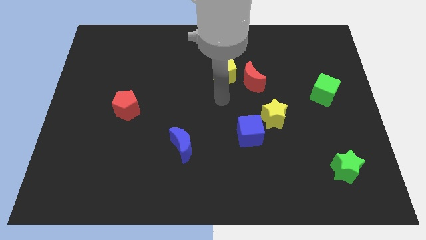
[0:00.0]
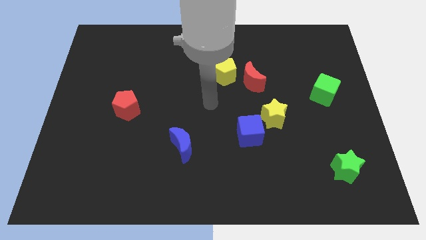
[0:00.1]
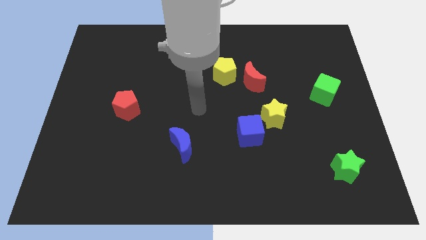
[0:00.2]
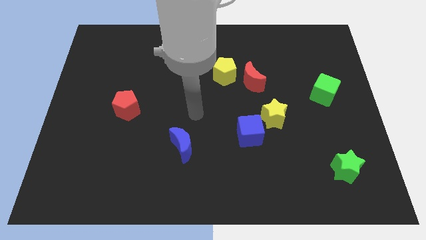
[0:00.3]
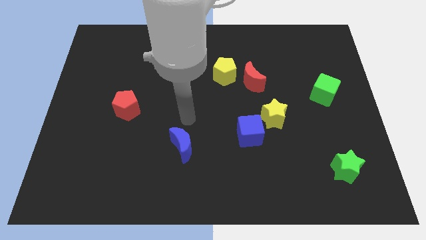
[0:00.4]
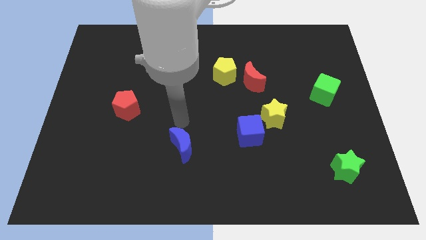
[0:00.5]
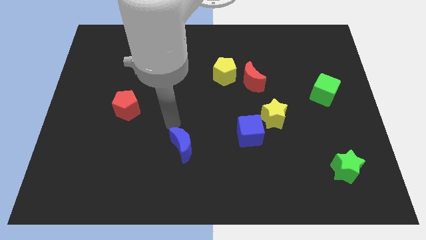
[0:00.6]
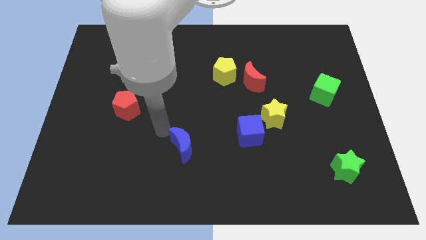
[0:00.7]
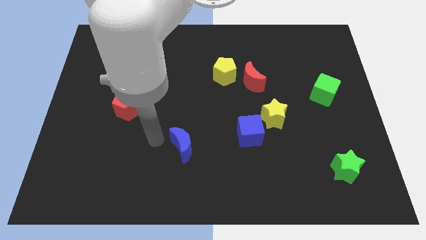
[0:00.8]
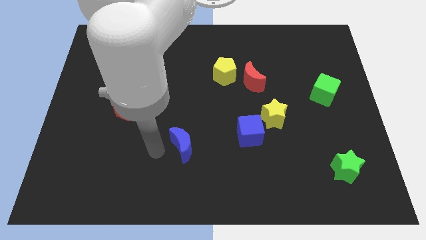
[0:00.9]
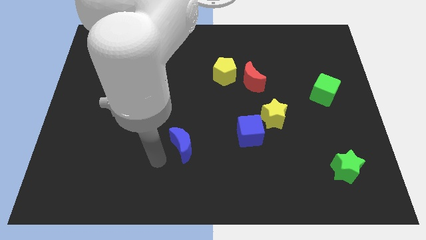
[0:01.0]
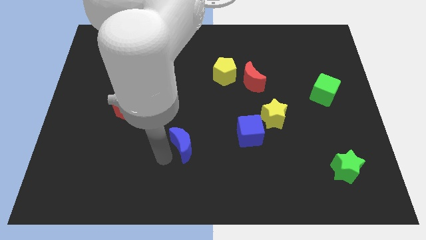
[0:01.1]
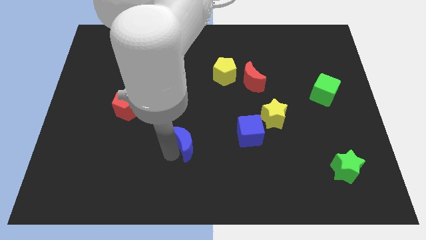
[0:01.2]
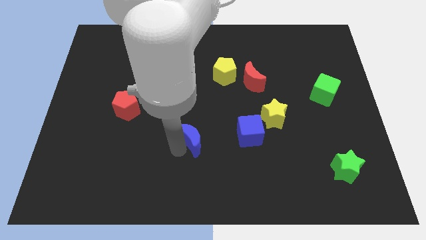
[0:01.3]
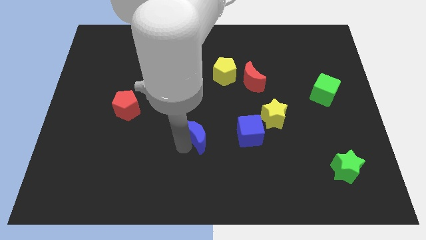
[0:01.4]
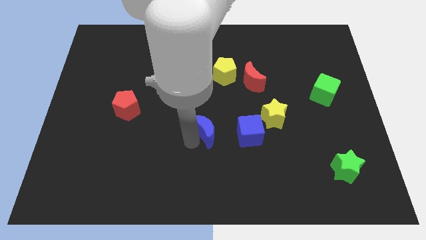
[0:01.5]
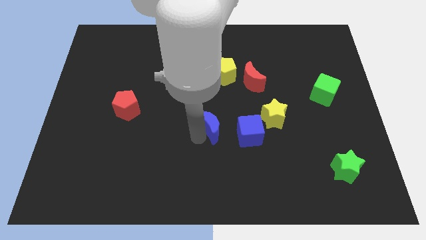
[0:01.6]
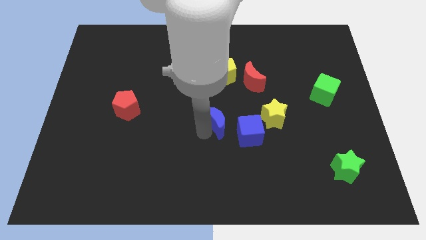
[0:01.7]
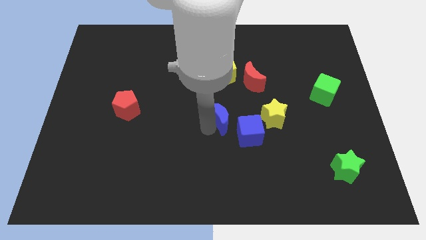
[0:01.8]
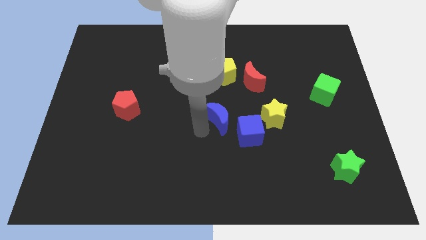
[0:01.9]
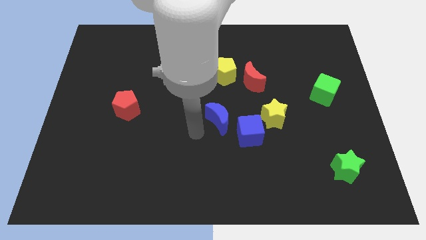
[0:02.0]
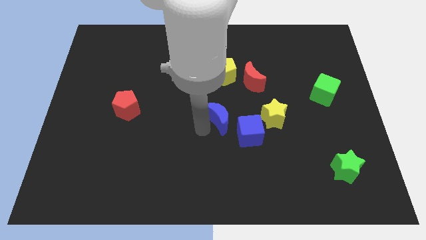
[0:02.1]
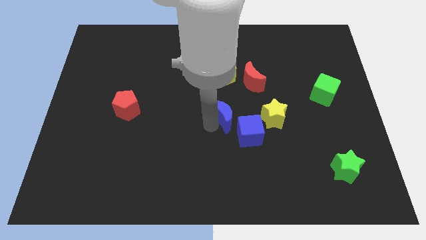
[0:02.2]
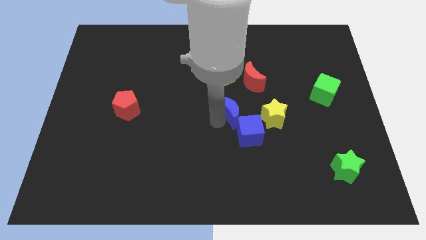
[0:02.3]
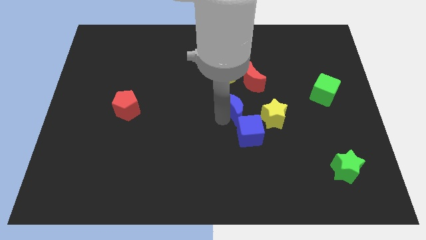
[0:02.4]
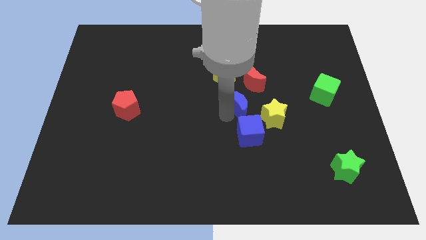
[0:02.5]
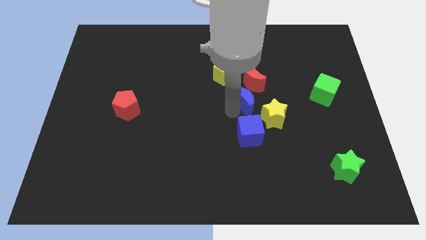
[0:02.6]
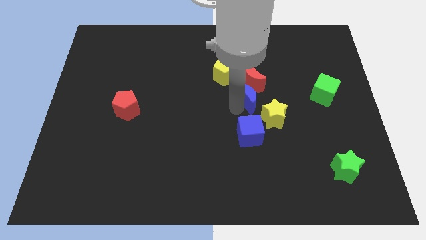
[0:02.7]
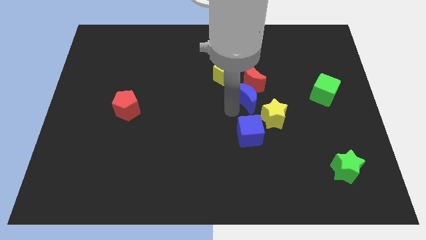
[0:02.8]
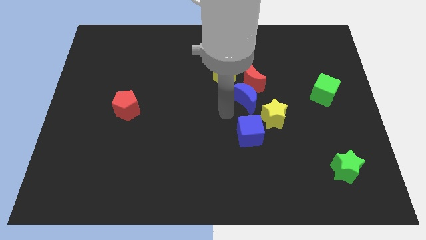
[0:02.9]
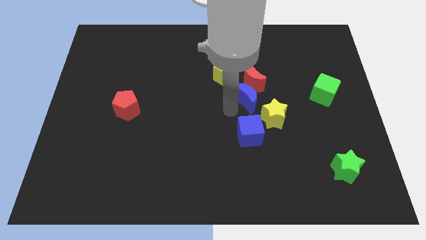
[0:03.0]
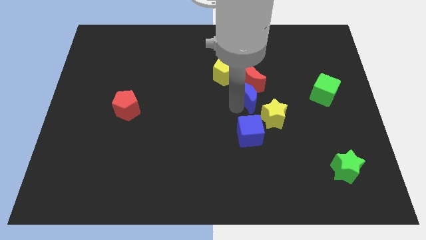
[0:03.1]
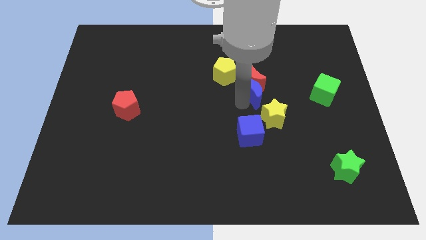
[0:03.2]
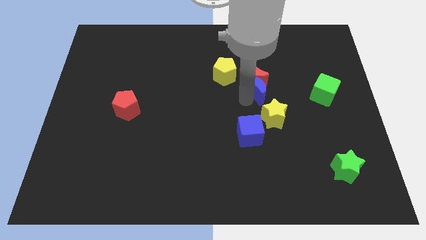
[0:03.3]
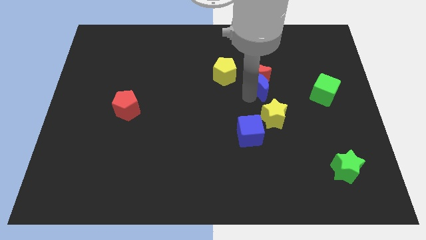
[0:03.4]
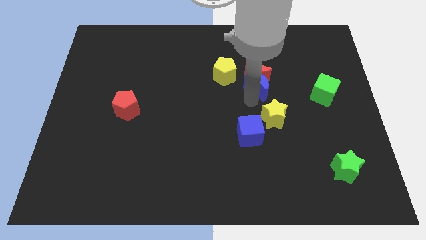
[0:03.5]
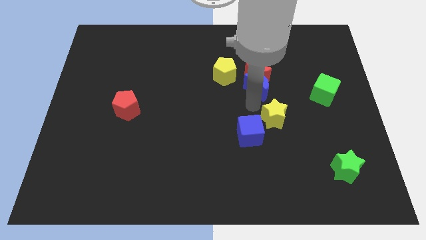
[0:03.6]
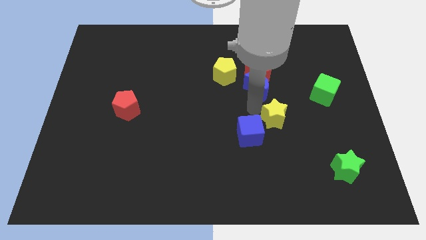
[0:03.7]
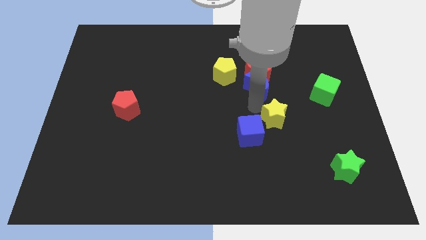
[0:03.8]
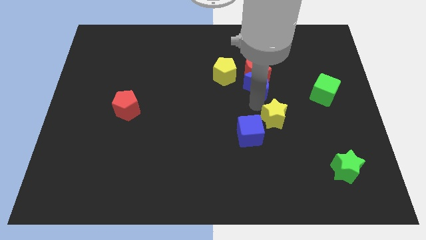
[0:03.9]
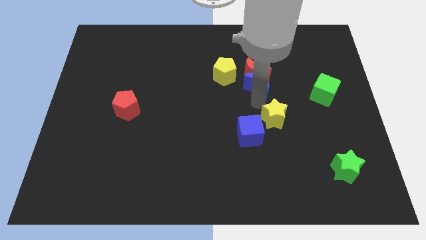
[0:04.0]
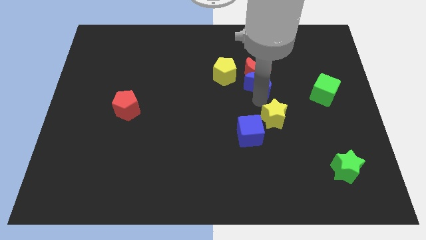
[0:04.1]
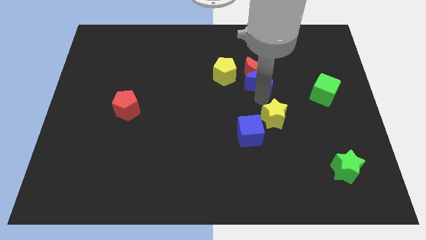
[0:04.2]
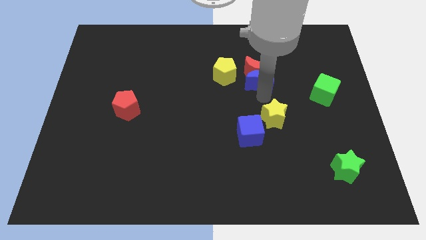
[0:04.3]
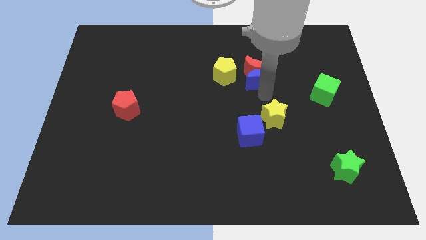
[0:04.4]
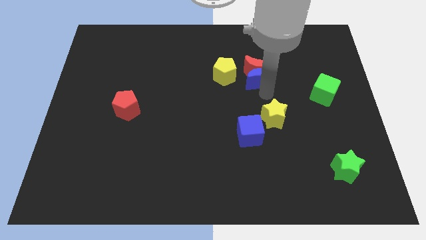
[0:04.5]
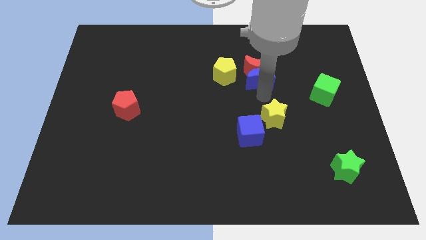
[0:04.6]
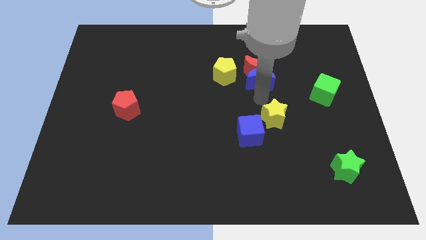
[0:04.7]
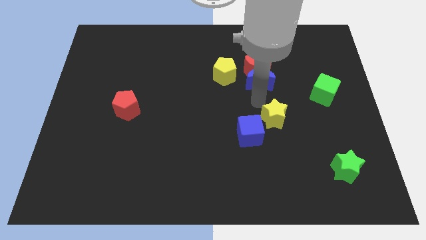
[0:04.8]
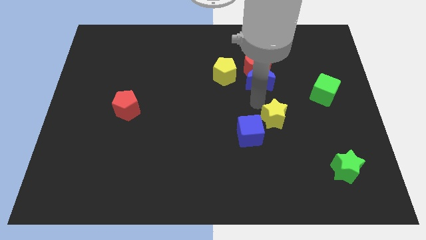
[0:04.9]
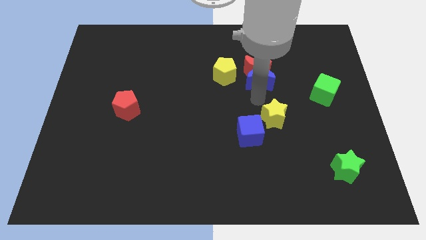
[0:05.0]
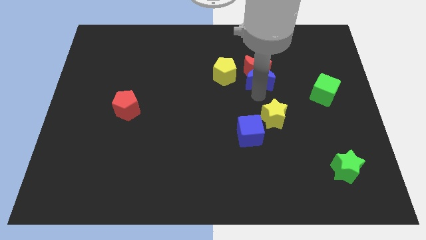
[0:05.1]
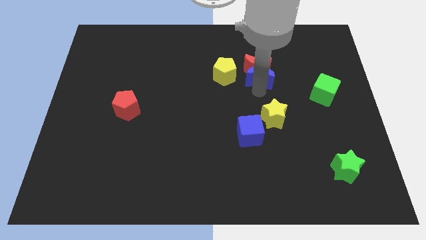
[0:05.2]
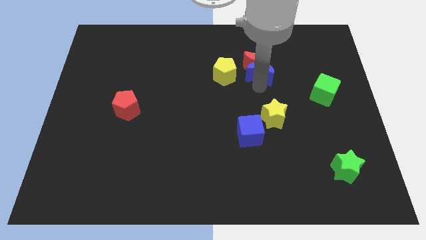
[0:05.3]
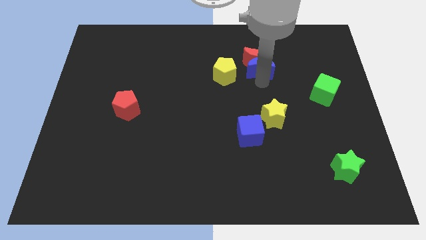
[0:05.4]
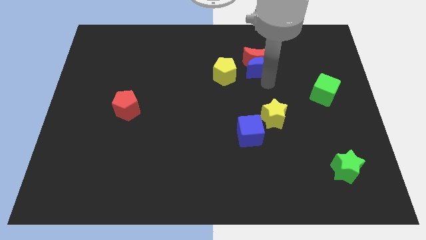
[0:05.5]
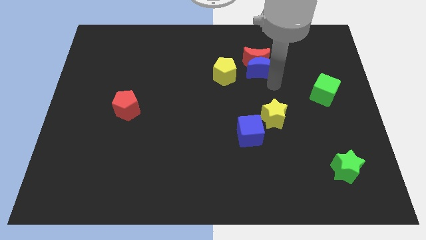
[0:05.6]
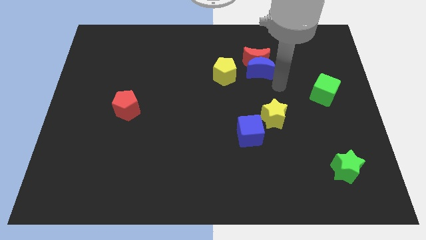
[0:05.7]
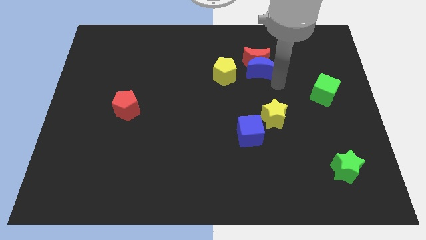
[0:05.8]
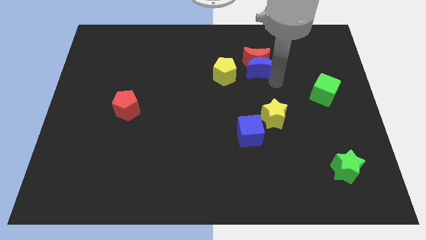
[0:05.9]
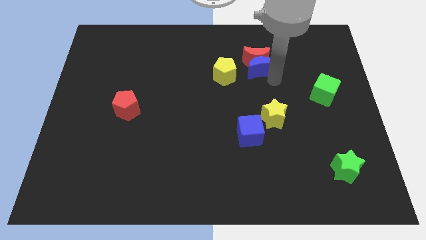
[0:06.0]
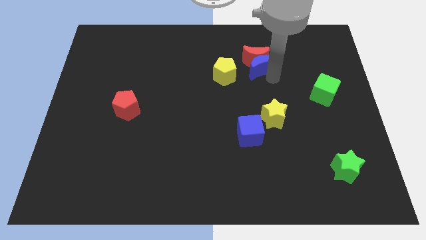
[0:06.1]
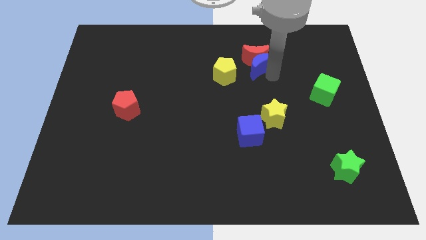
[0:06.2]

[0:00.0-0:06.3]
slide the blue moon to the top right of the yellow pentagon

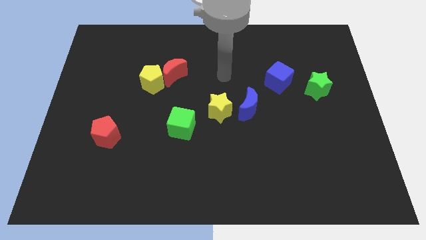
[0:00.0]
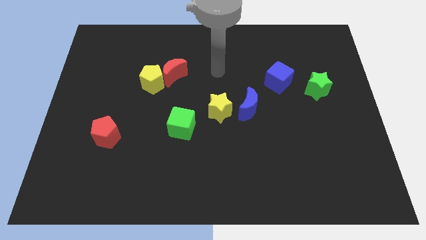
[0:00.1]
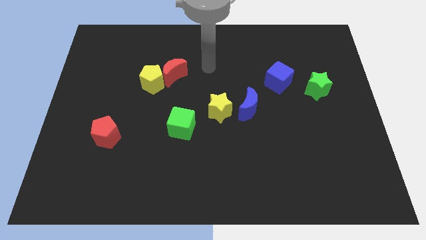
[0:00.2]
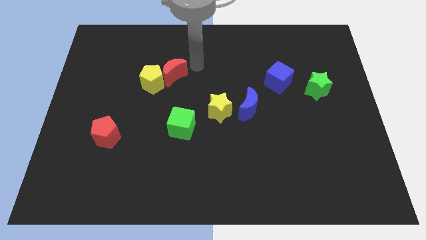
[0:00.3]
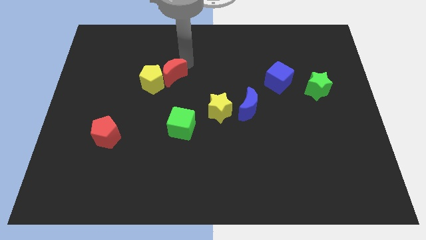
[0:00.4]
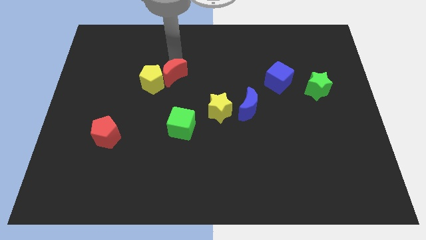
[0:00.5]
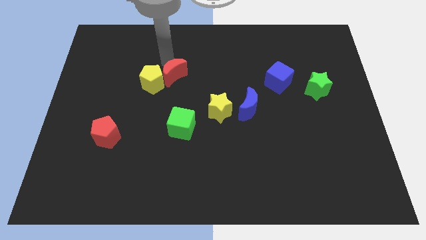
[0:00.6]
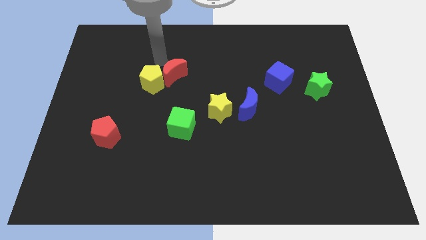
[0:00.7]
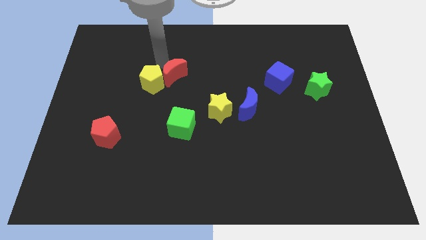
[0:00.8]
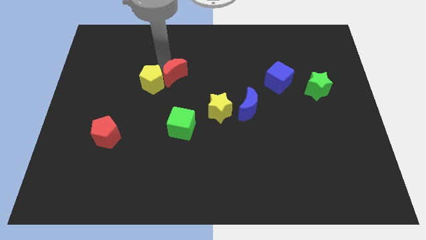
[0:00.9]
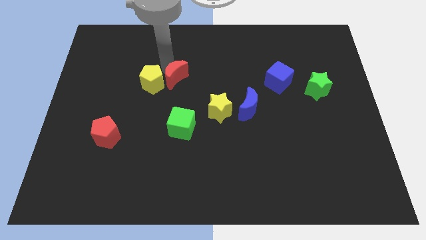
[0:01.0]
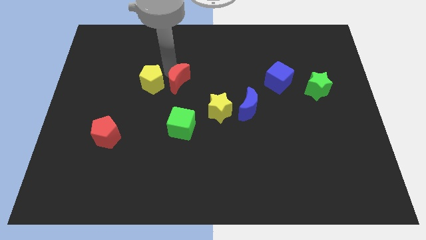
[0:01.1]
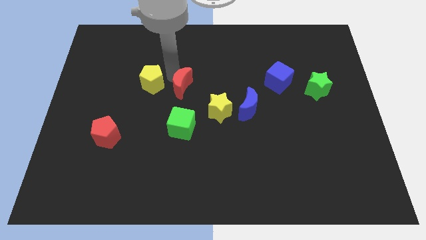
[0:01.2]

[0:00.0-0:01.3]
put the red moon diagonally up and to the left of the yellow star
